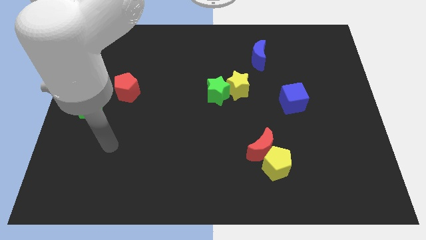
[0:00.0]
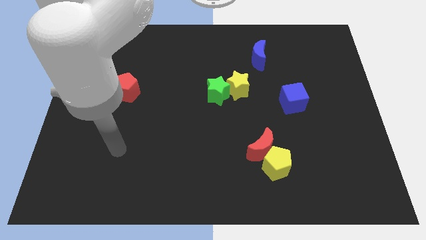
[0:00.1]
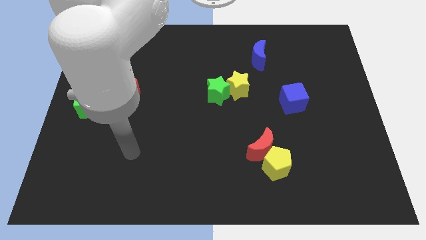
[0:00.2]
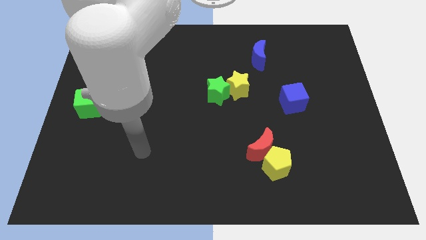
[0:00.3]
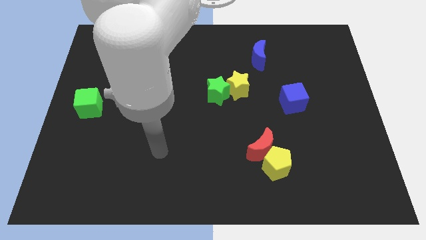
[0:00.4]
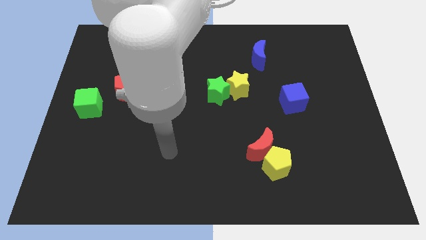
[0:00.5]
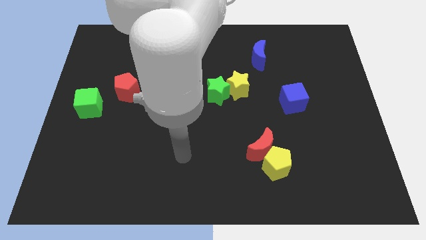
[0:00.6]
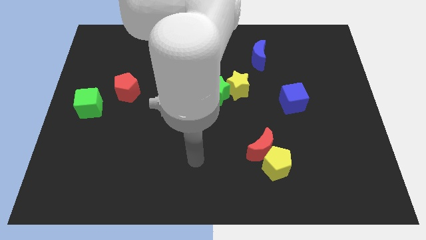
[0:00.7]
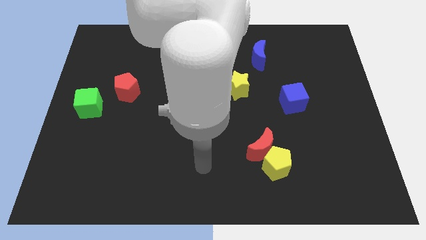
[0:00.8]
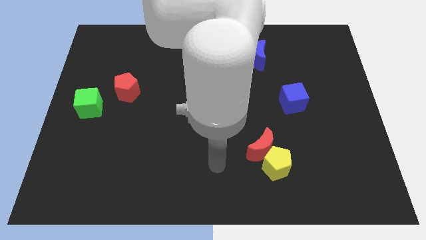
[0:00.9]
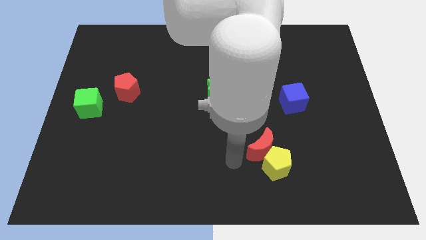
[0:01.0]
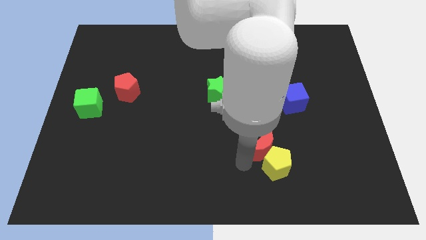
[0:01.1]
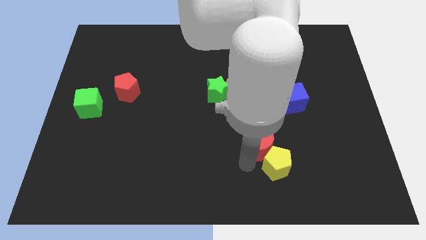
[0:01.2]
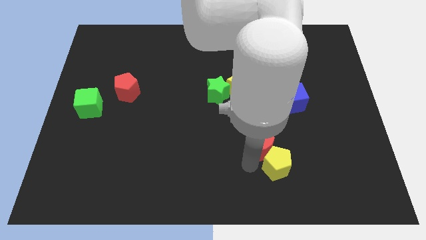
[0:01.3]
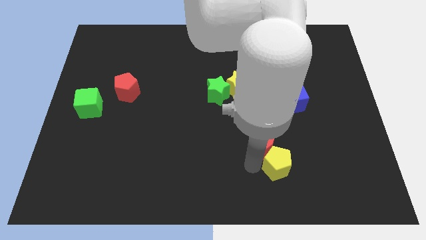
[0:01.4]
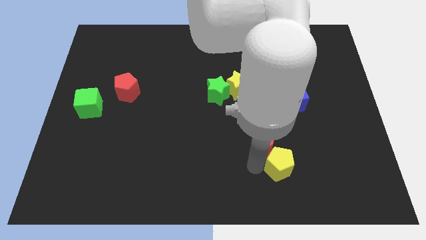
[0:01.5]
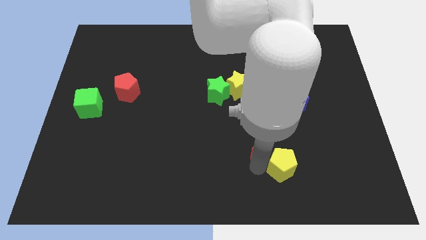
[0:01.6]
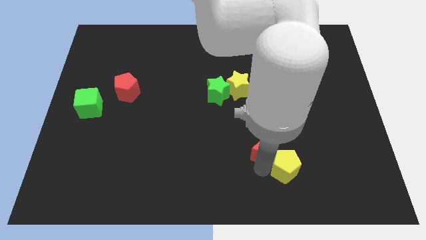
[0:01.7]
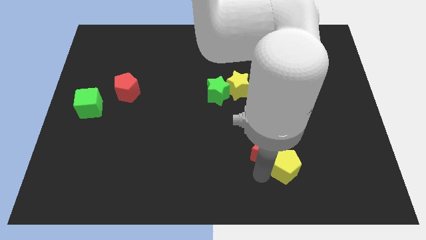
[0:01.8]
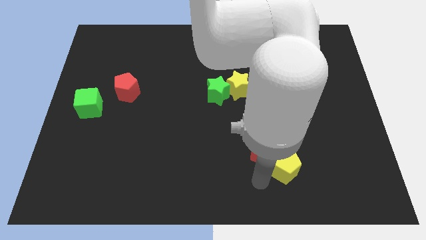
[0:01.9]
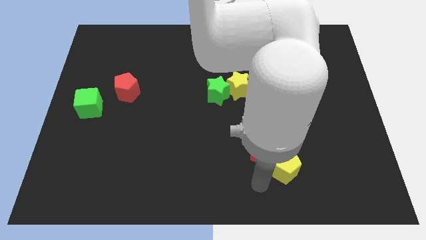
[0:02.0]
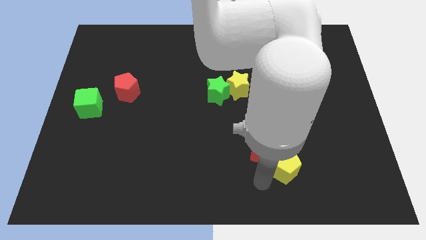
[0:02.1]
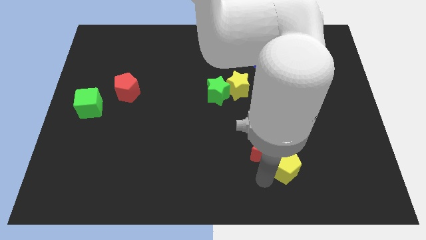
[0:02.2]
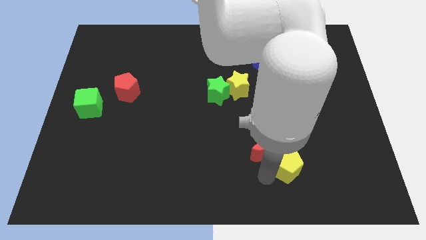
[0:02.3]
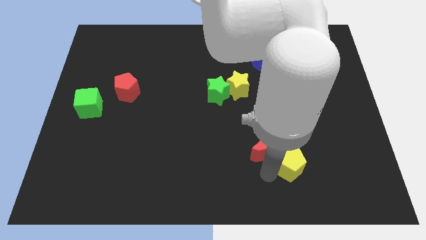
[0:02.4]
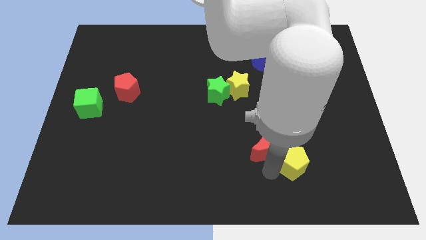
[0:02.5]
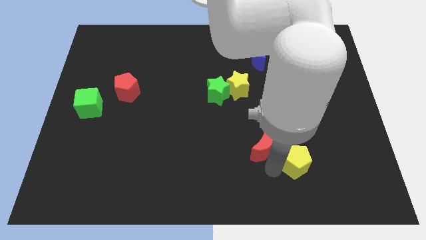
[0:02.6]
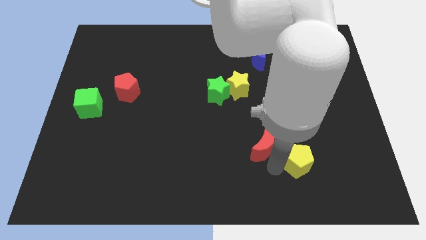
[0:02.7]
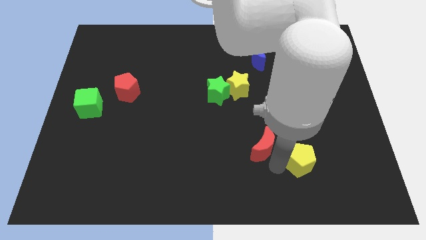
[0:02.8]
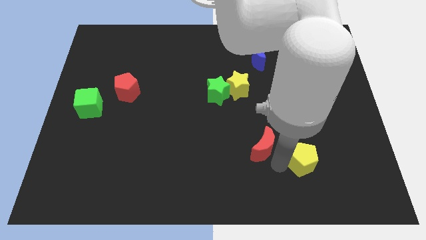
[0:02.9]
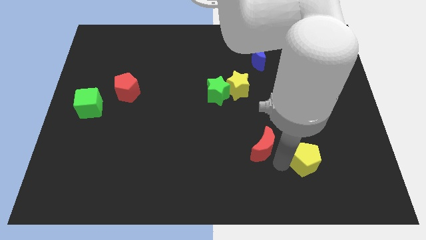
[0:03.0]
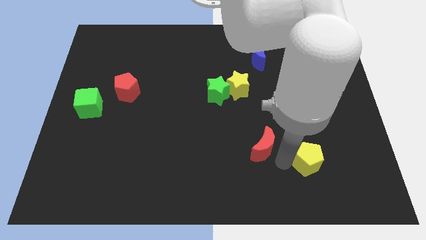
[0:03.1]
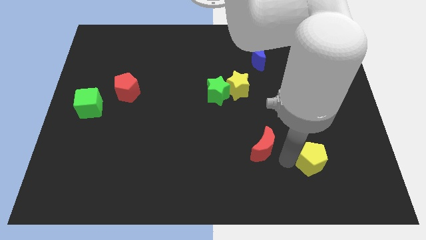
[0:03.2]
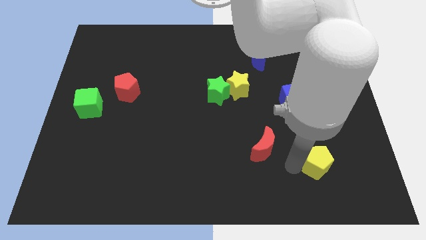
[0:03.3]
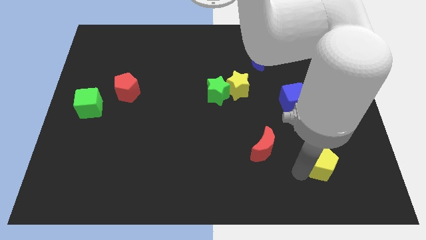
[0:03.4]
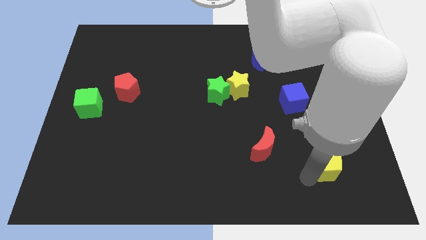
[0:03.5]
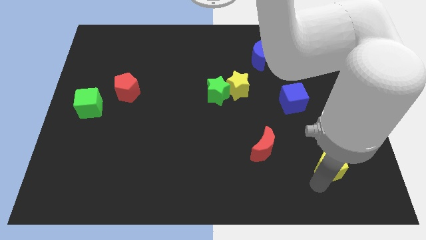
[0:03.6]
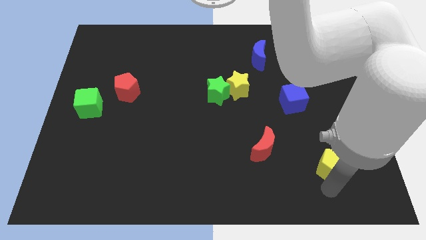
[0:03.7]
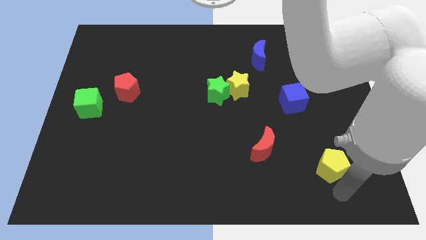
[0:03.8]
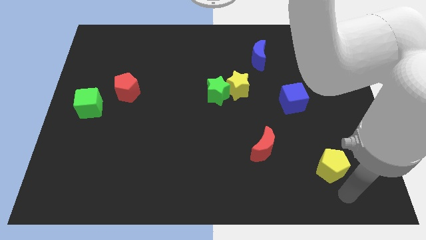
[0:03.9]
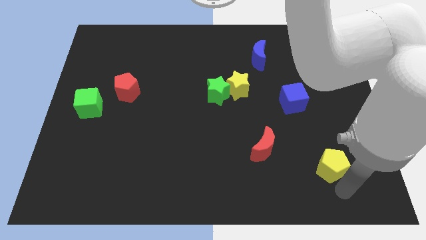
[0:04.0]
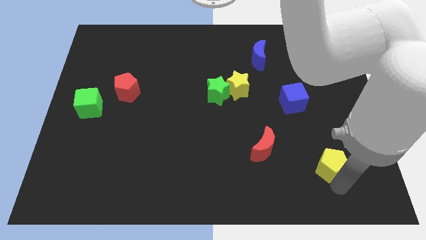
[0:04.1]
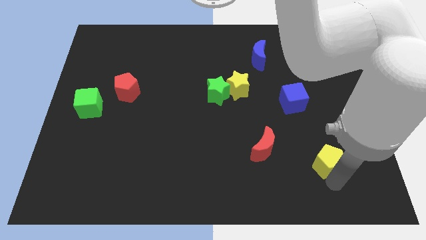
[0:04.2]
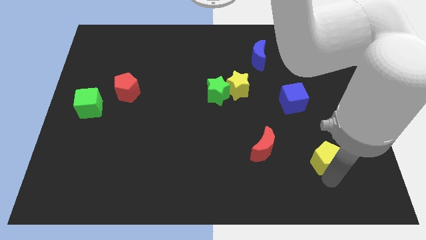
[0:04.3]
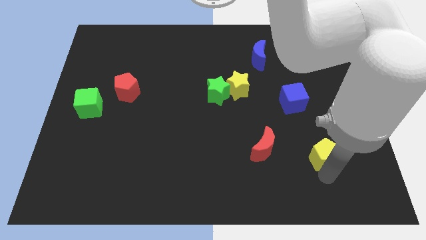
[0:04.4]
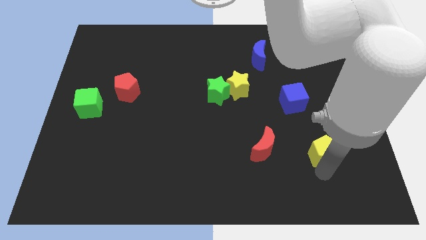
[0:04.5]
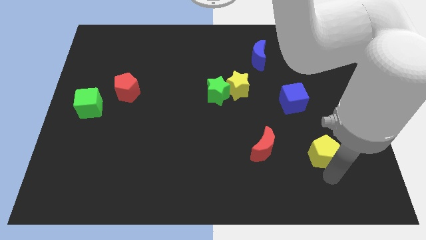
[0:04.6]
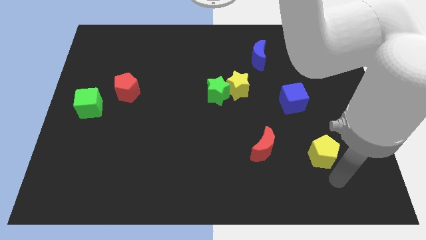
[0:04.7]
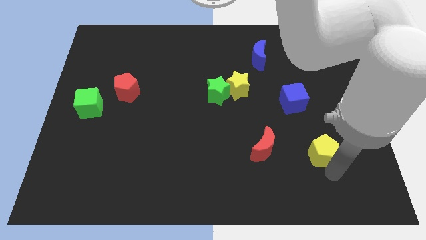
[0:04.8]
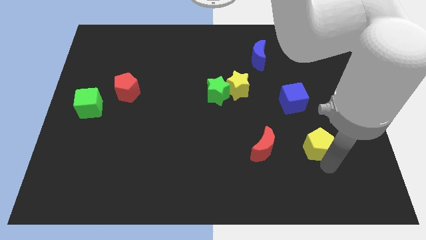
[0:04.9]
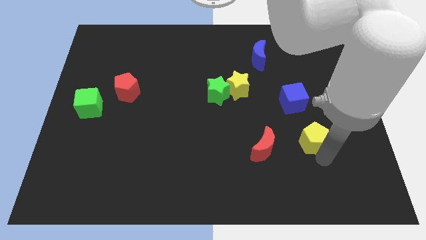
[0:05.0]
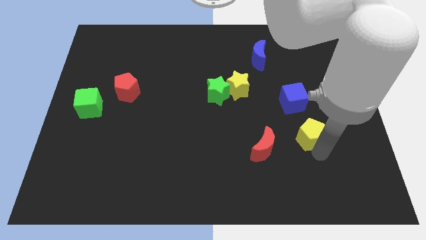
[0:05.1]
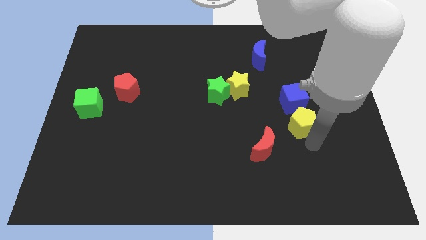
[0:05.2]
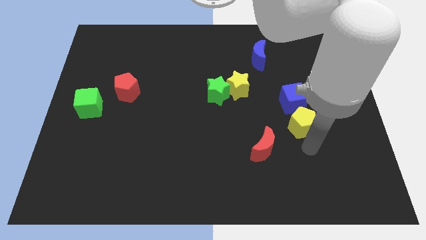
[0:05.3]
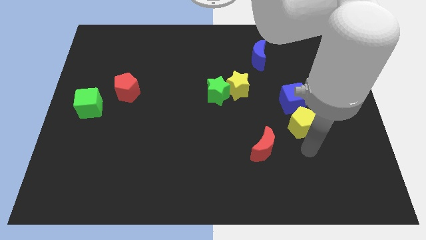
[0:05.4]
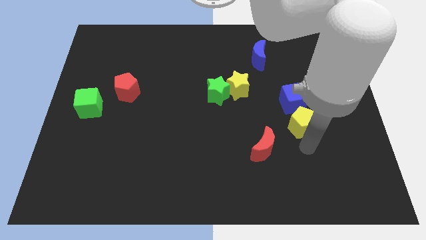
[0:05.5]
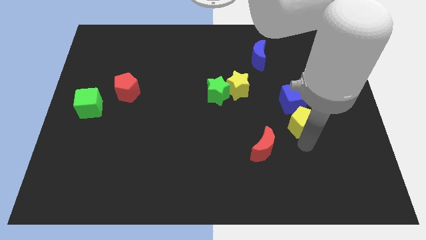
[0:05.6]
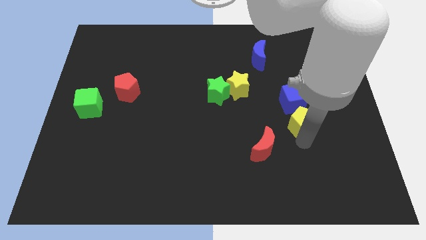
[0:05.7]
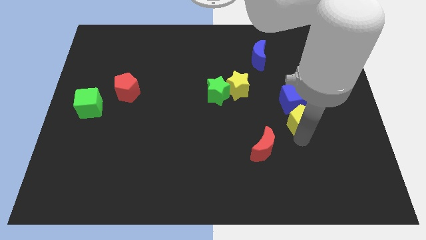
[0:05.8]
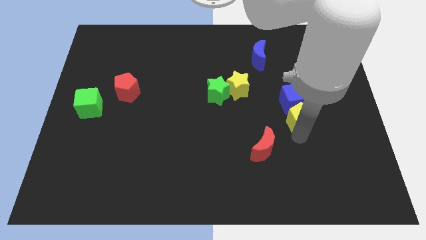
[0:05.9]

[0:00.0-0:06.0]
push the yellow pentagon to the blue cube

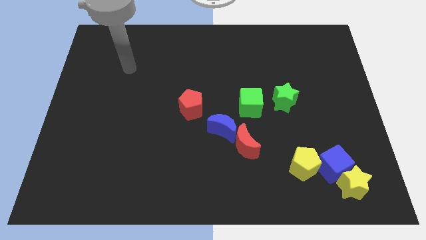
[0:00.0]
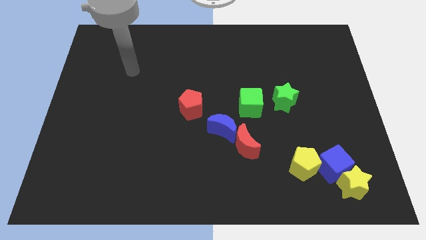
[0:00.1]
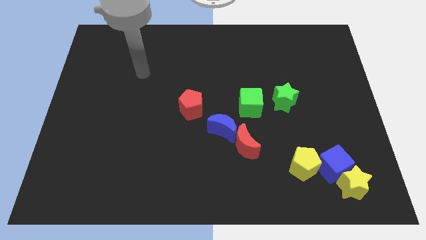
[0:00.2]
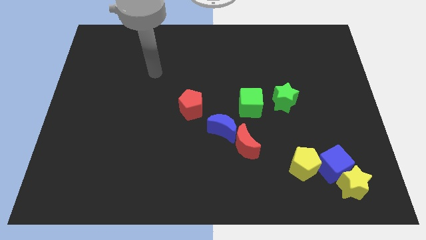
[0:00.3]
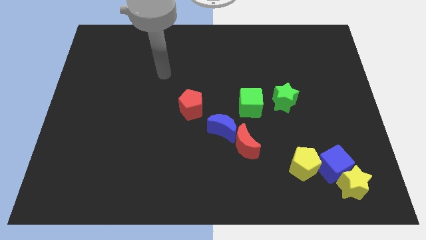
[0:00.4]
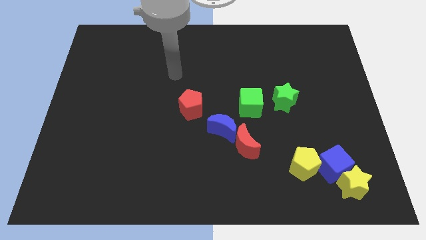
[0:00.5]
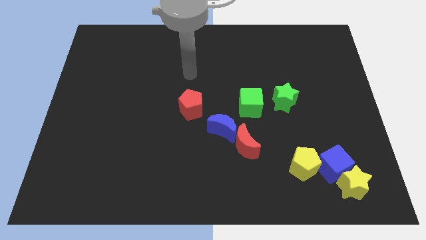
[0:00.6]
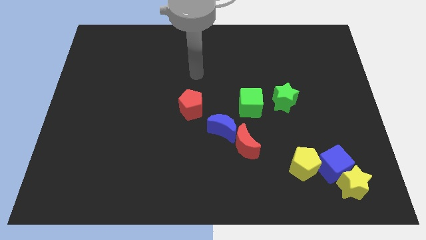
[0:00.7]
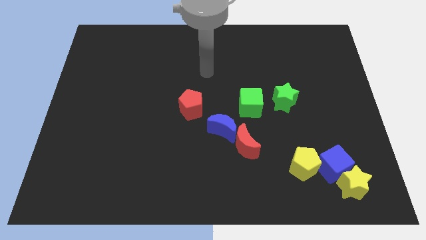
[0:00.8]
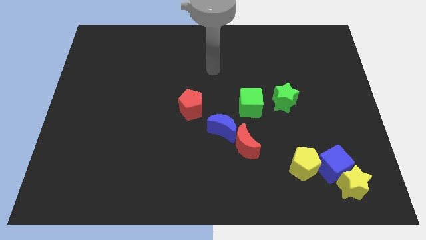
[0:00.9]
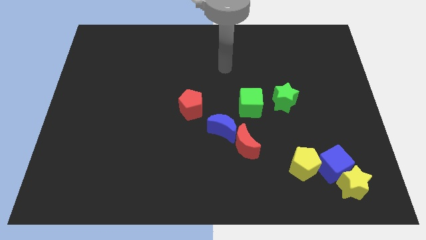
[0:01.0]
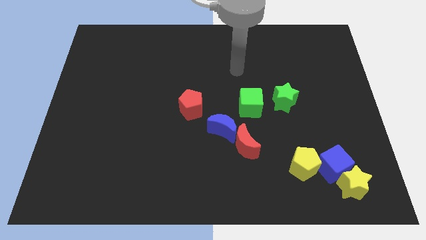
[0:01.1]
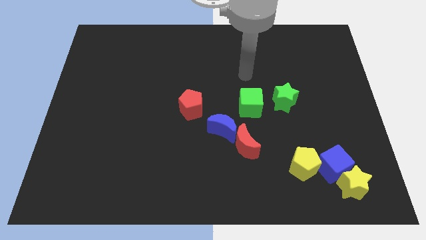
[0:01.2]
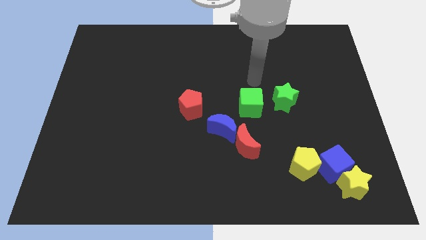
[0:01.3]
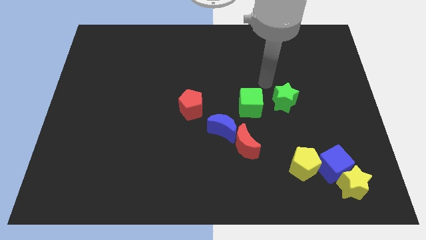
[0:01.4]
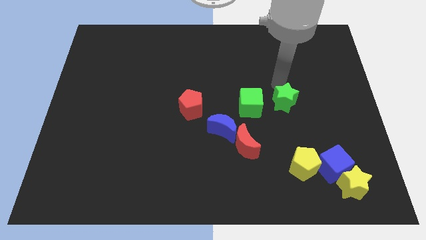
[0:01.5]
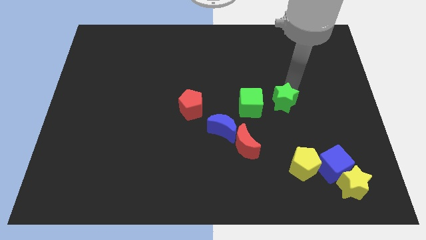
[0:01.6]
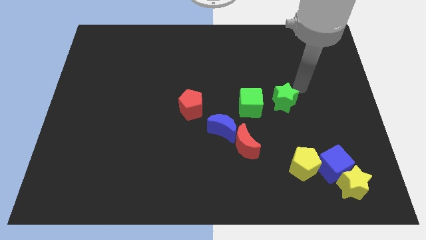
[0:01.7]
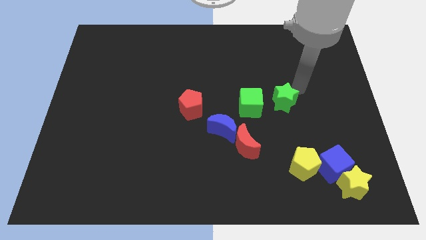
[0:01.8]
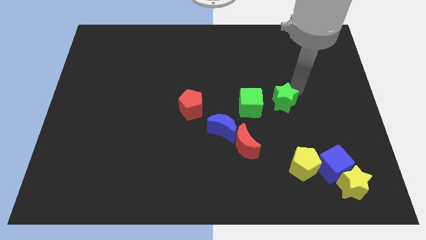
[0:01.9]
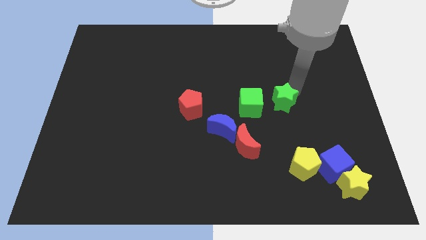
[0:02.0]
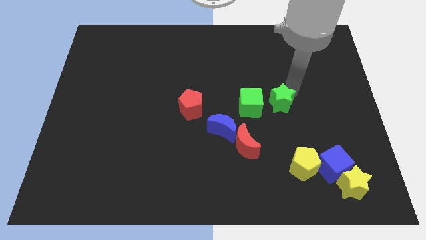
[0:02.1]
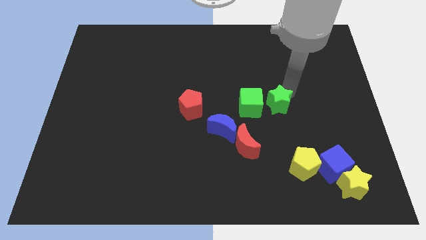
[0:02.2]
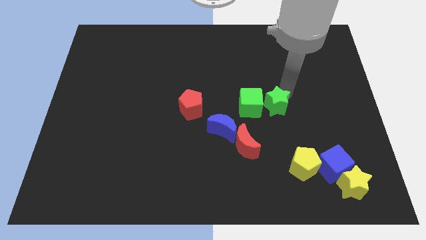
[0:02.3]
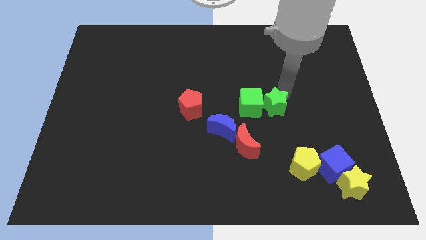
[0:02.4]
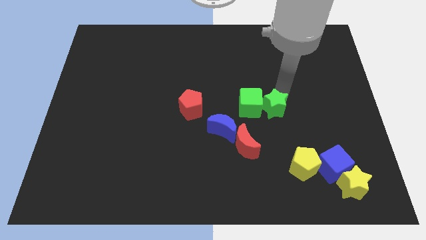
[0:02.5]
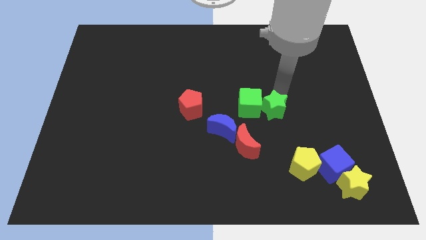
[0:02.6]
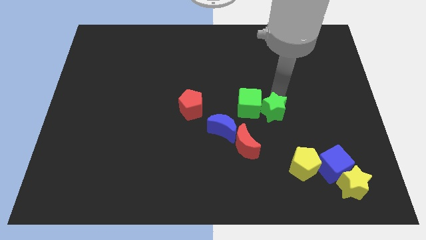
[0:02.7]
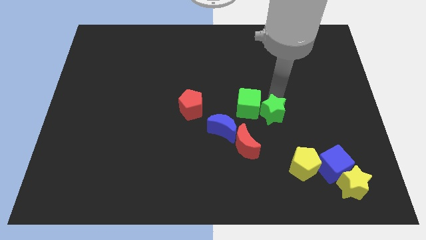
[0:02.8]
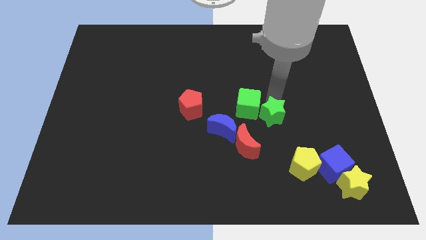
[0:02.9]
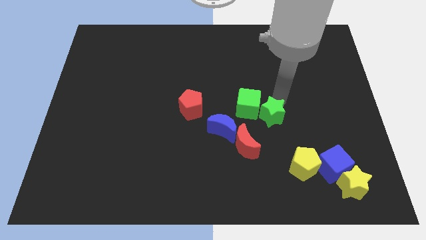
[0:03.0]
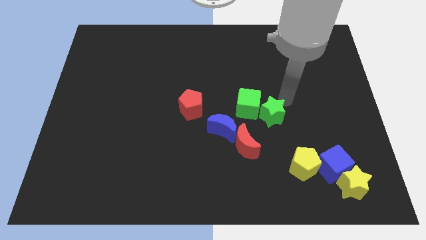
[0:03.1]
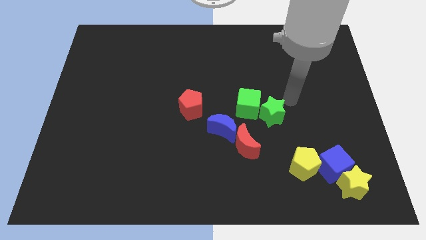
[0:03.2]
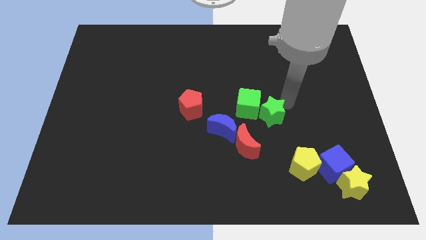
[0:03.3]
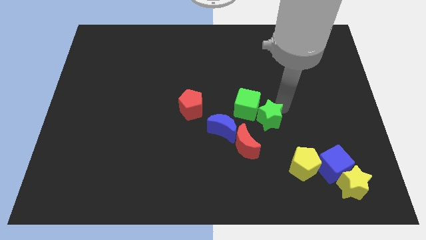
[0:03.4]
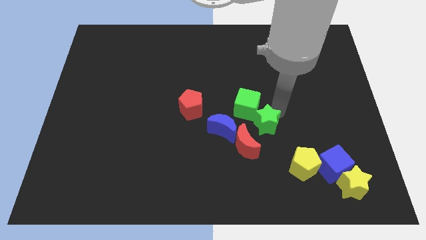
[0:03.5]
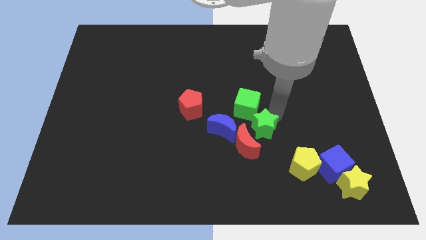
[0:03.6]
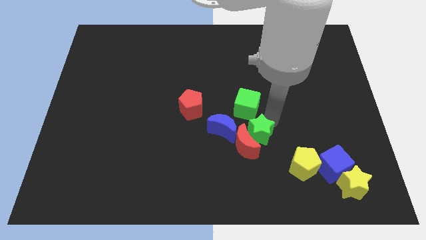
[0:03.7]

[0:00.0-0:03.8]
push the green star towards the red moon
